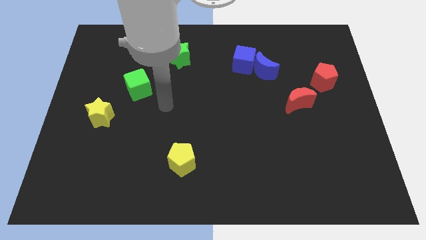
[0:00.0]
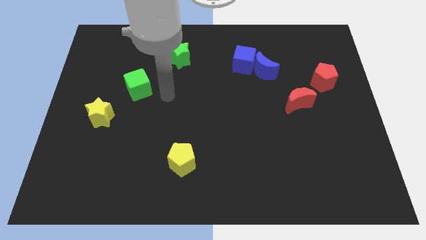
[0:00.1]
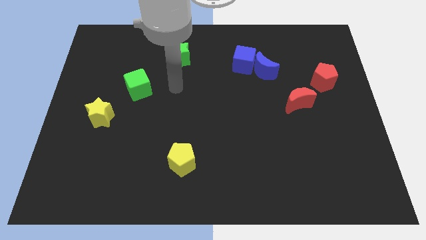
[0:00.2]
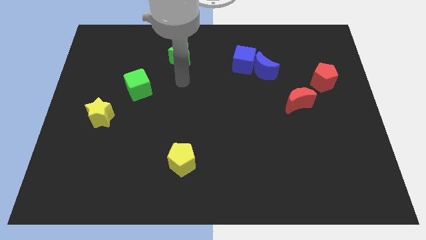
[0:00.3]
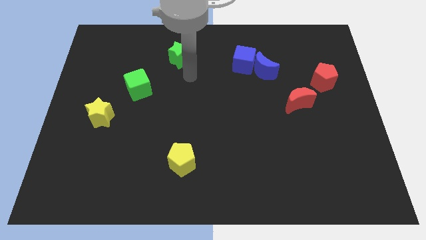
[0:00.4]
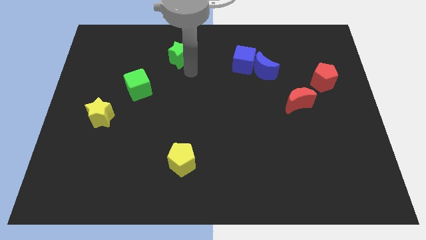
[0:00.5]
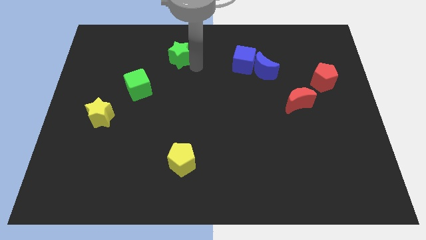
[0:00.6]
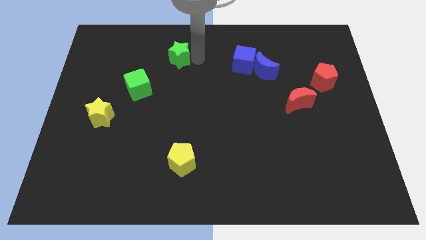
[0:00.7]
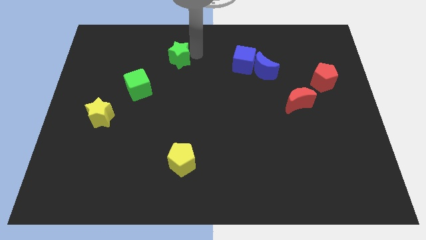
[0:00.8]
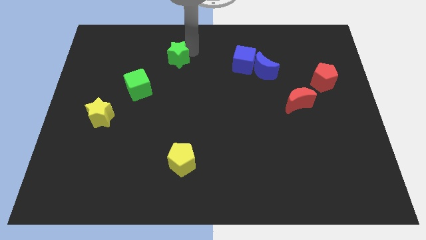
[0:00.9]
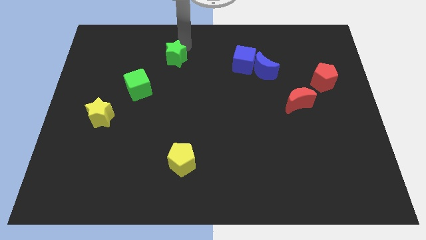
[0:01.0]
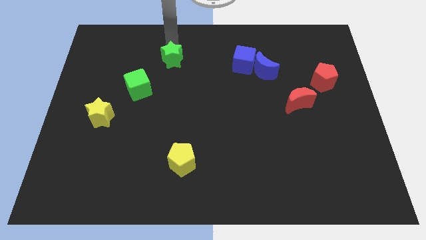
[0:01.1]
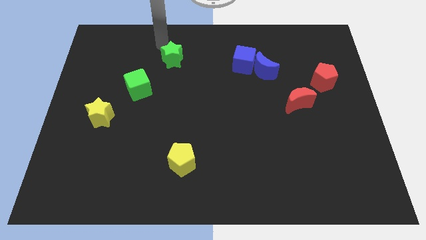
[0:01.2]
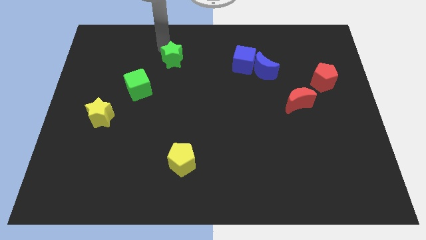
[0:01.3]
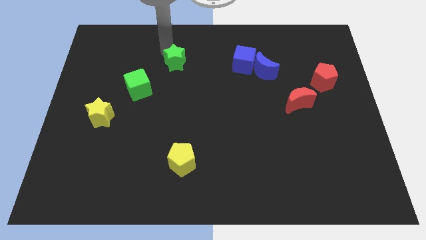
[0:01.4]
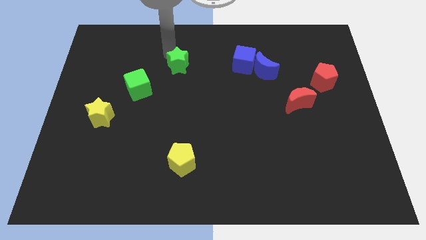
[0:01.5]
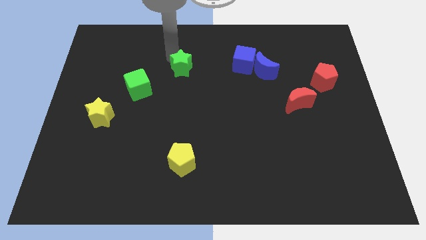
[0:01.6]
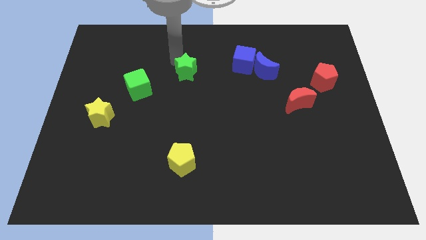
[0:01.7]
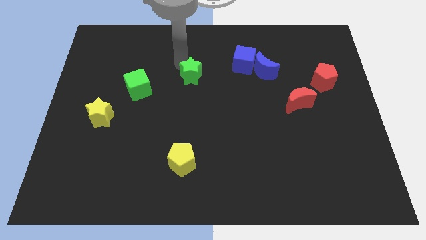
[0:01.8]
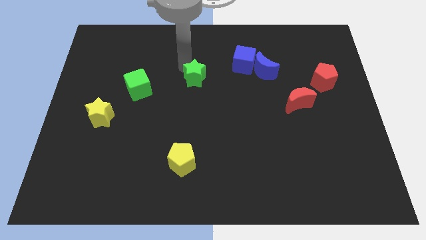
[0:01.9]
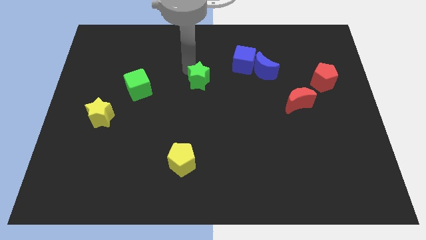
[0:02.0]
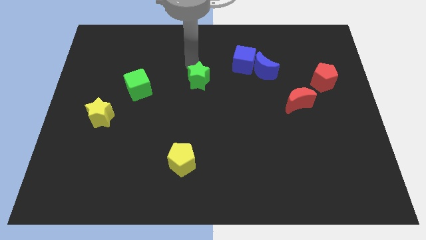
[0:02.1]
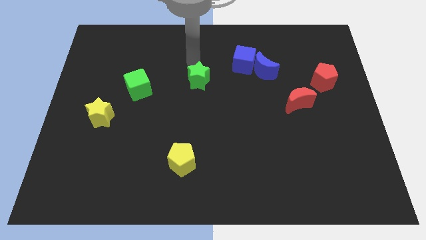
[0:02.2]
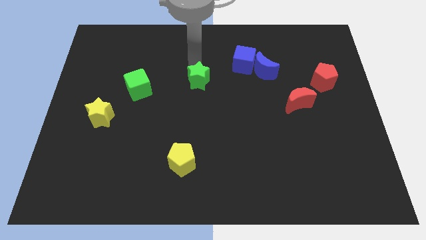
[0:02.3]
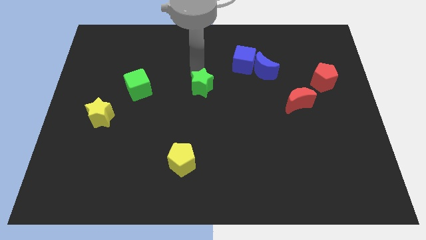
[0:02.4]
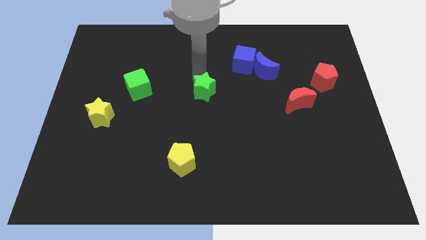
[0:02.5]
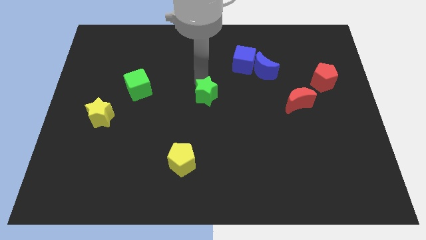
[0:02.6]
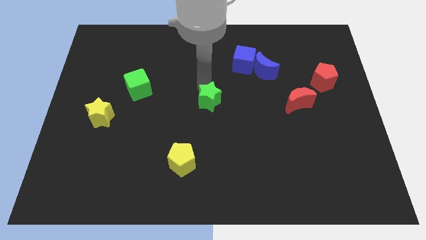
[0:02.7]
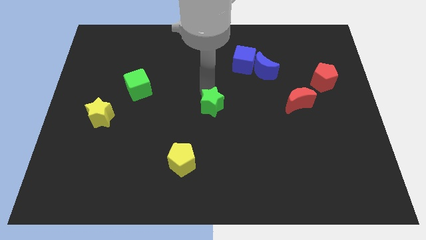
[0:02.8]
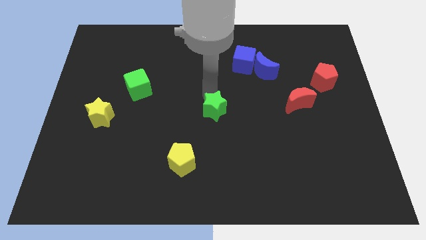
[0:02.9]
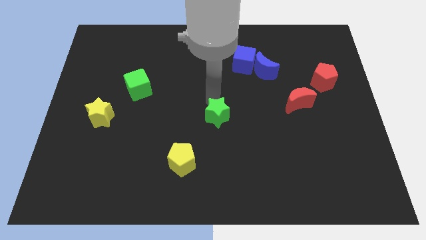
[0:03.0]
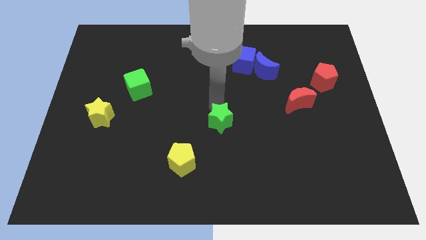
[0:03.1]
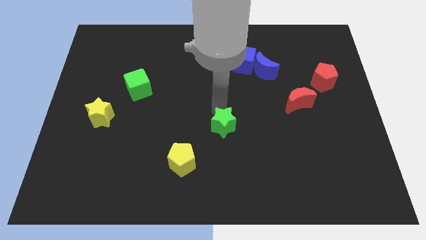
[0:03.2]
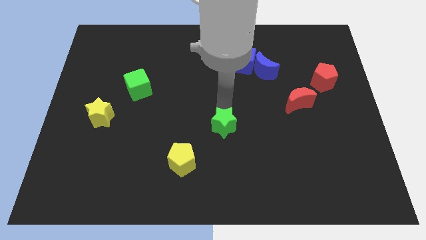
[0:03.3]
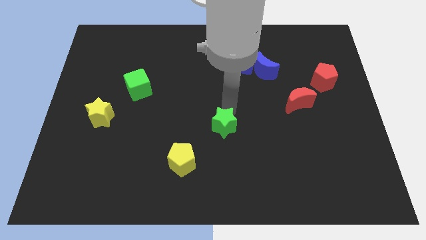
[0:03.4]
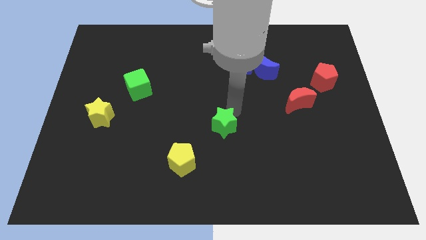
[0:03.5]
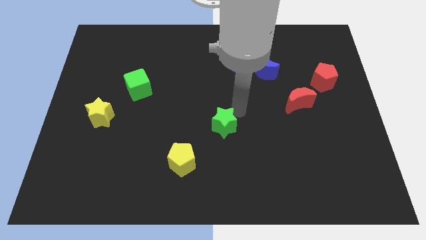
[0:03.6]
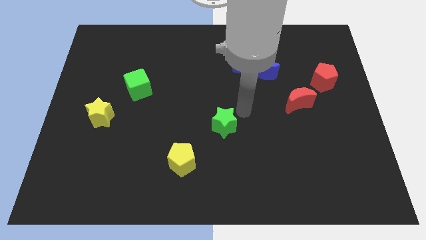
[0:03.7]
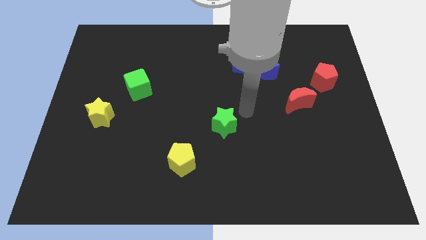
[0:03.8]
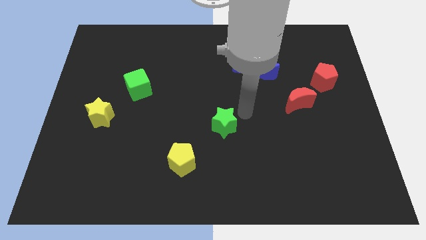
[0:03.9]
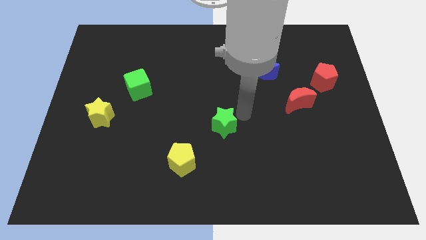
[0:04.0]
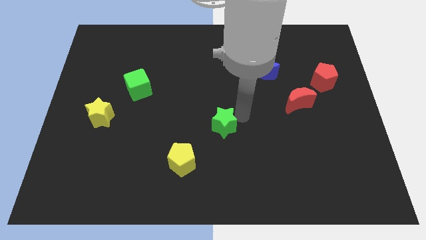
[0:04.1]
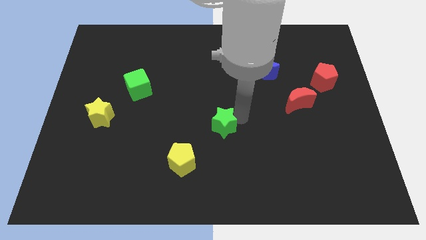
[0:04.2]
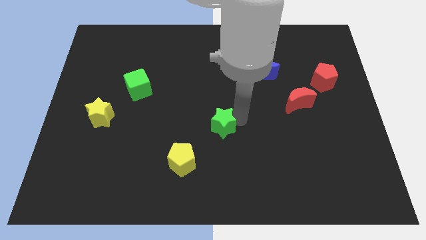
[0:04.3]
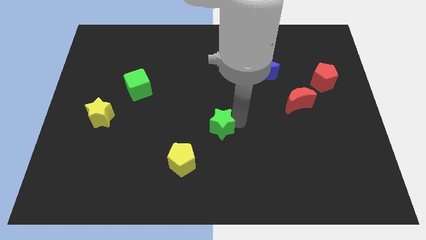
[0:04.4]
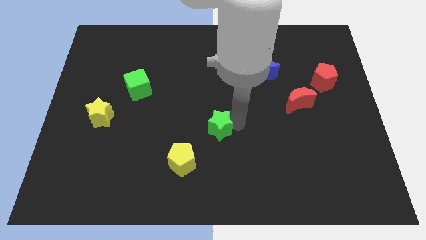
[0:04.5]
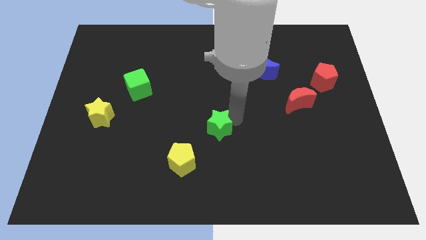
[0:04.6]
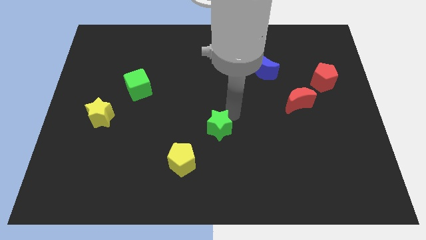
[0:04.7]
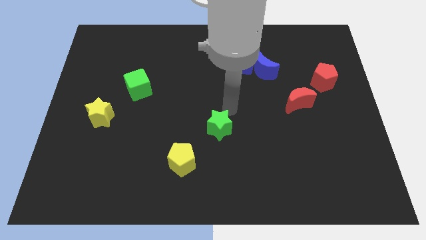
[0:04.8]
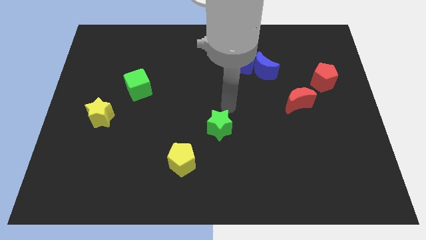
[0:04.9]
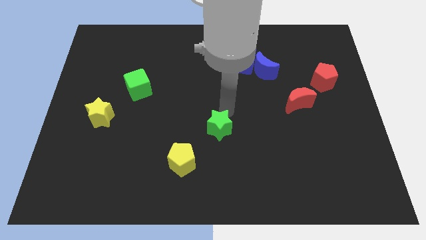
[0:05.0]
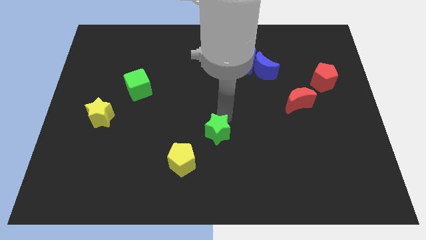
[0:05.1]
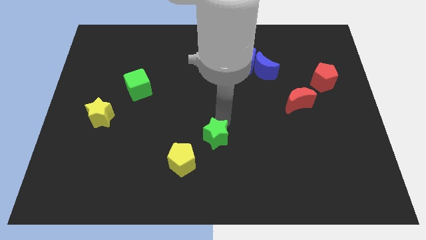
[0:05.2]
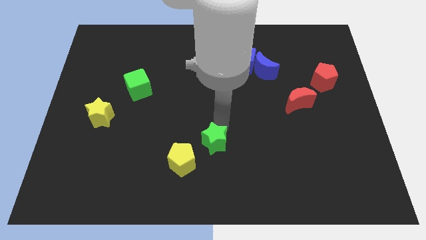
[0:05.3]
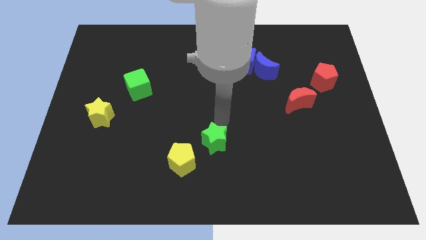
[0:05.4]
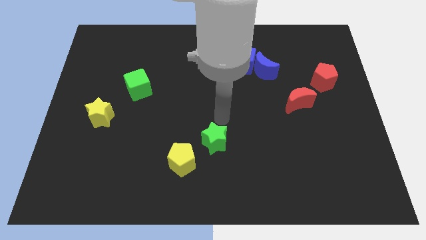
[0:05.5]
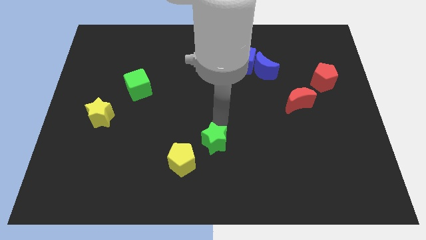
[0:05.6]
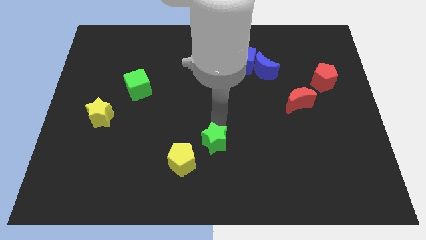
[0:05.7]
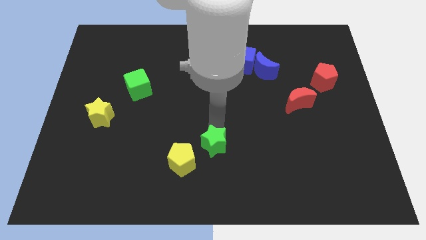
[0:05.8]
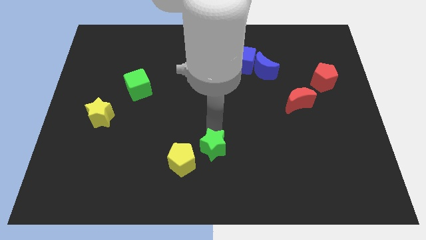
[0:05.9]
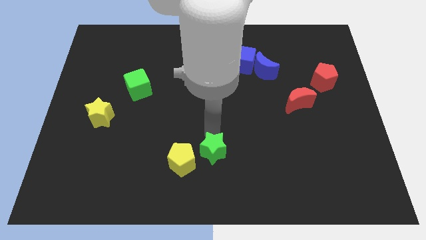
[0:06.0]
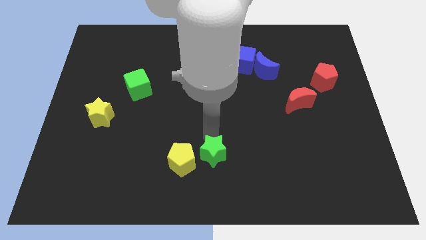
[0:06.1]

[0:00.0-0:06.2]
slide the green star to the bottom

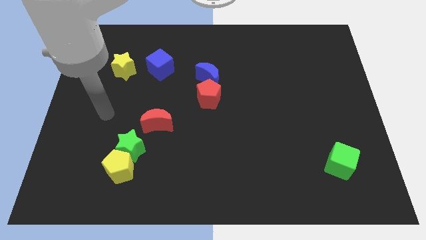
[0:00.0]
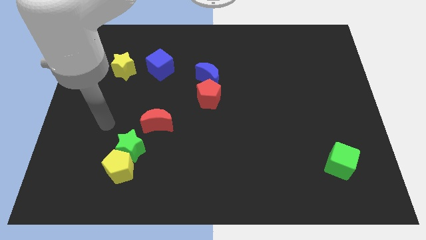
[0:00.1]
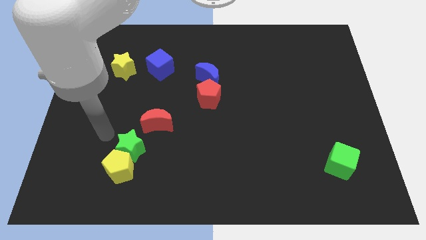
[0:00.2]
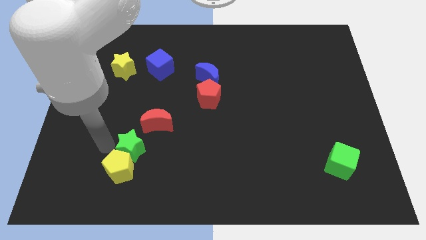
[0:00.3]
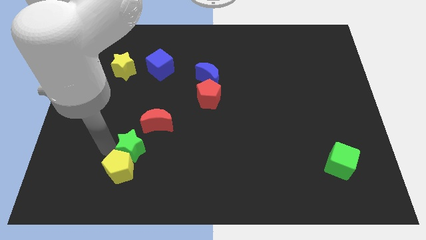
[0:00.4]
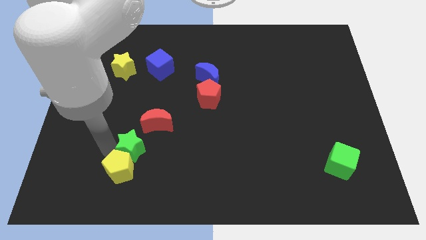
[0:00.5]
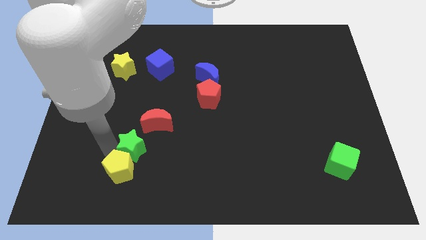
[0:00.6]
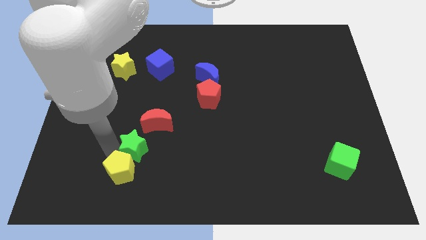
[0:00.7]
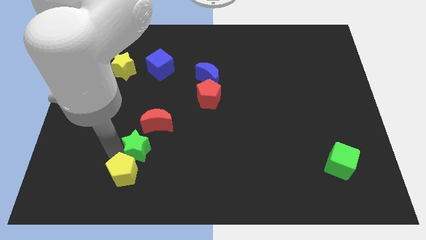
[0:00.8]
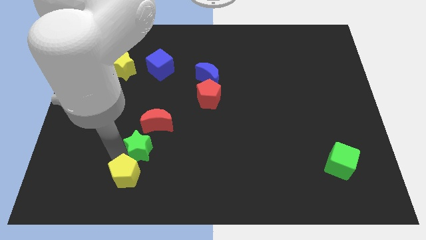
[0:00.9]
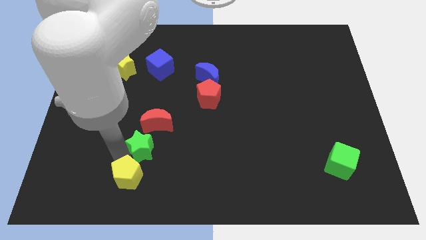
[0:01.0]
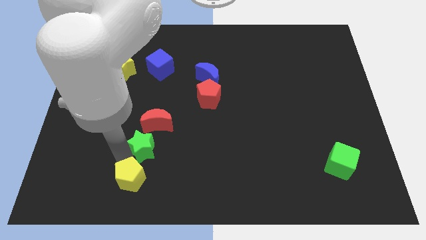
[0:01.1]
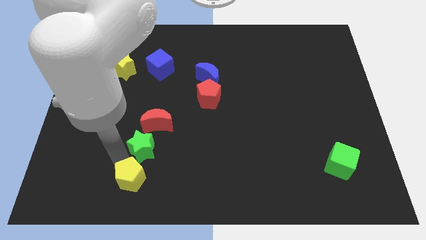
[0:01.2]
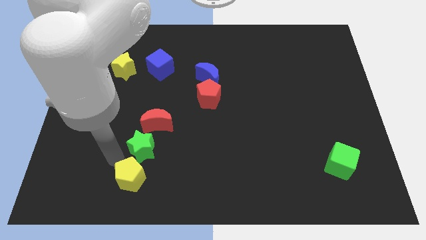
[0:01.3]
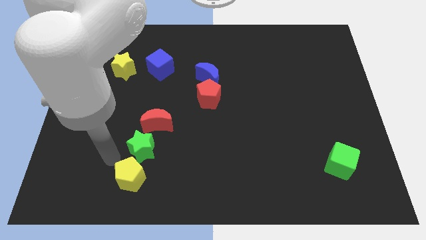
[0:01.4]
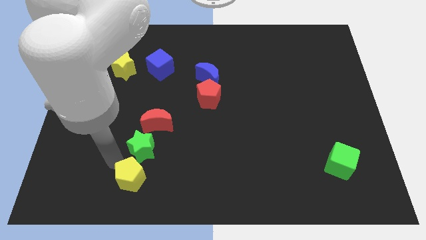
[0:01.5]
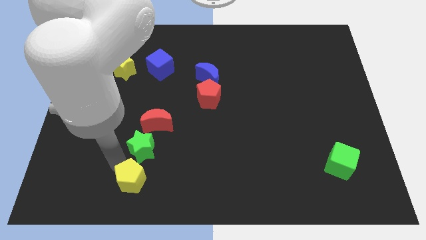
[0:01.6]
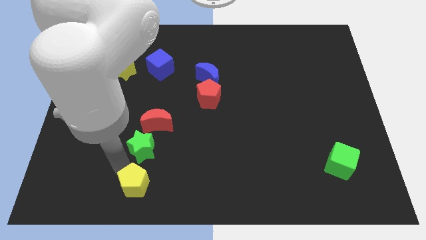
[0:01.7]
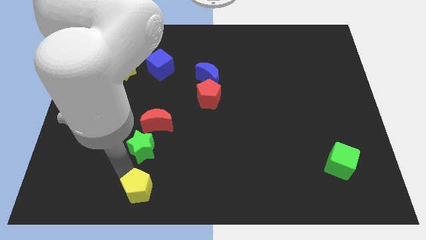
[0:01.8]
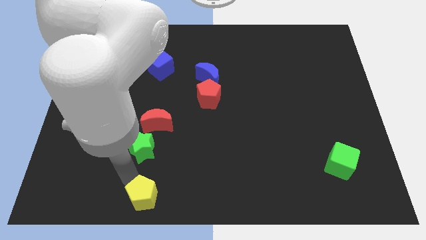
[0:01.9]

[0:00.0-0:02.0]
slide the yellow pentagon to the bottom side
